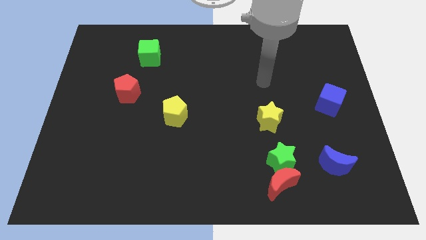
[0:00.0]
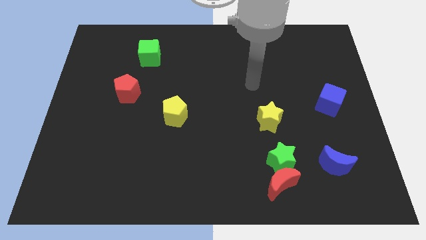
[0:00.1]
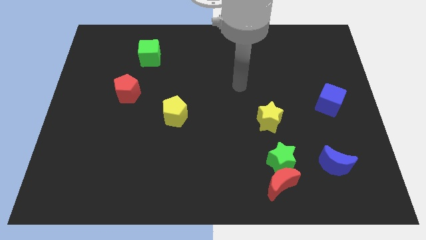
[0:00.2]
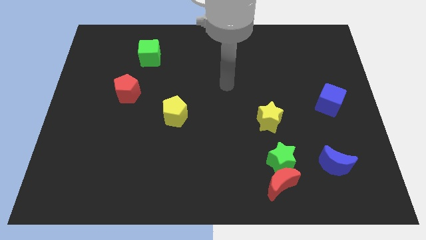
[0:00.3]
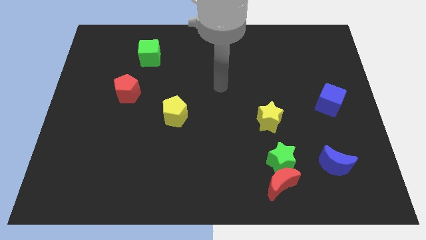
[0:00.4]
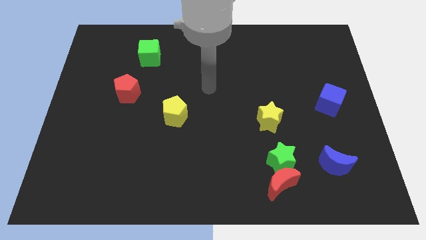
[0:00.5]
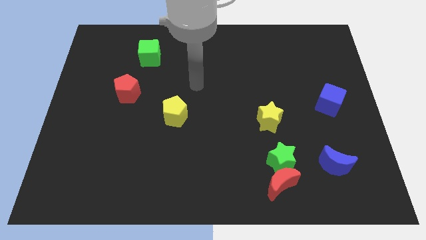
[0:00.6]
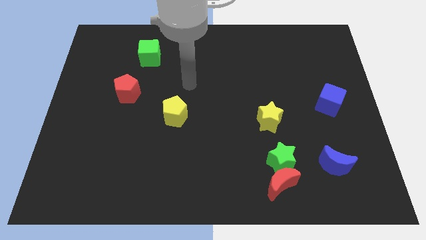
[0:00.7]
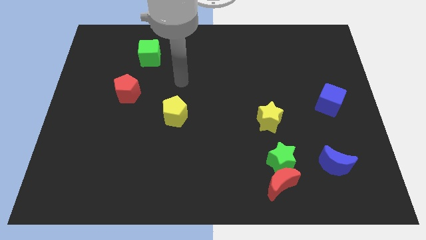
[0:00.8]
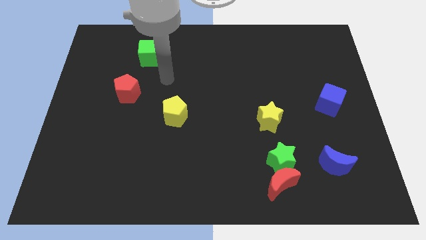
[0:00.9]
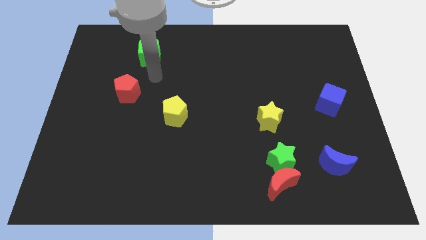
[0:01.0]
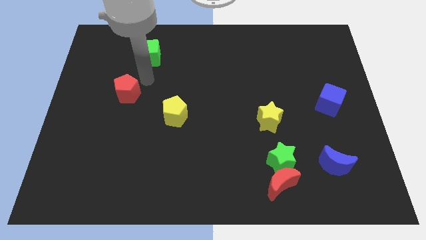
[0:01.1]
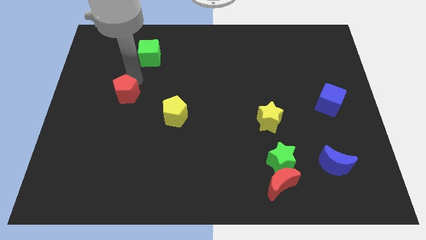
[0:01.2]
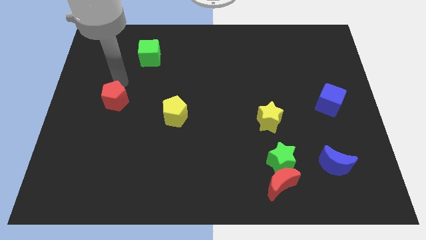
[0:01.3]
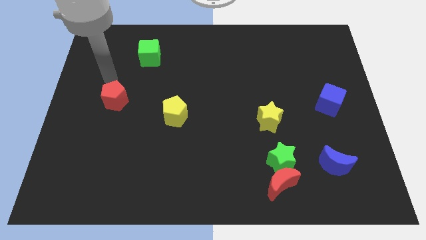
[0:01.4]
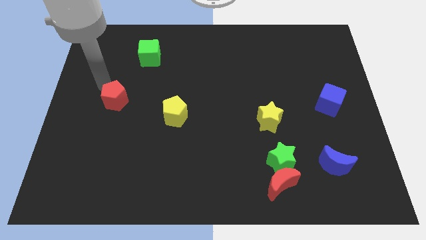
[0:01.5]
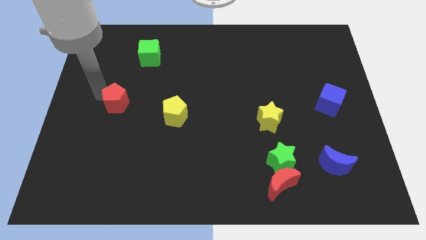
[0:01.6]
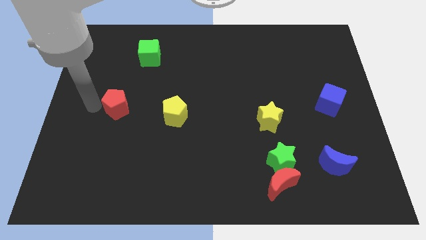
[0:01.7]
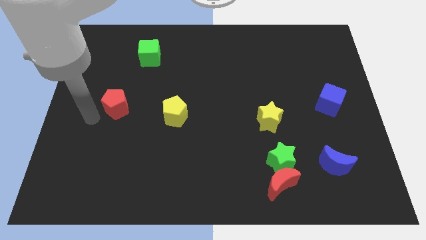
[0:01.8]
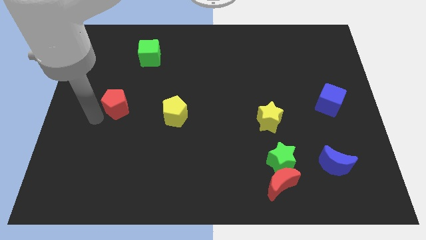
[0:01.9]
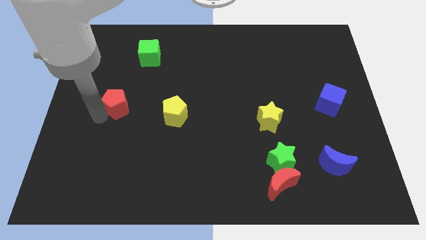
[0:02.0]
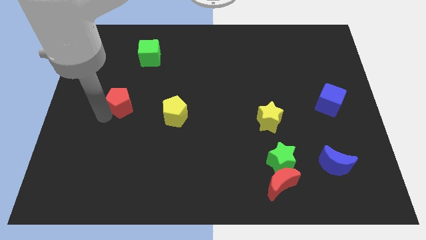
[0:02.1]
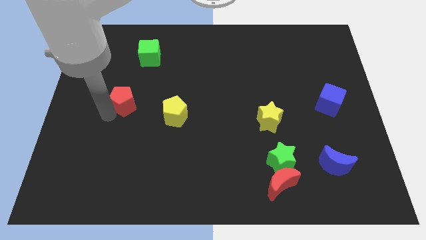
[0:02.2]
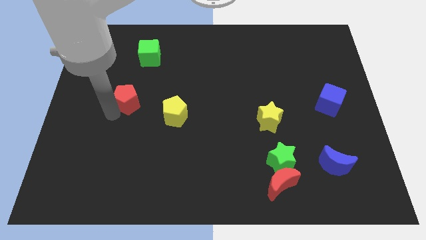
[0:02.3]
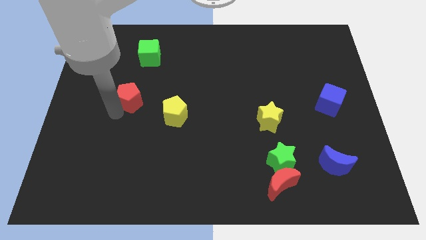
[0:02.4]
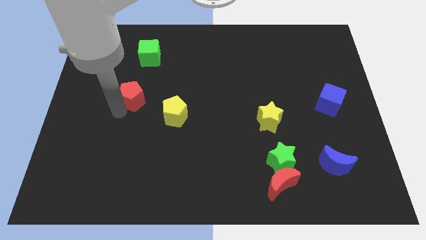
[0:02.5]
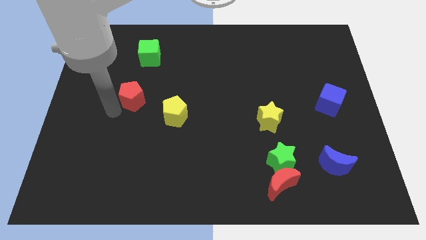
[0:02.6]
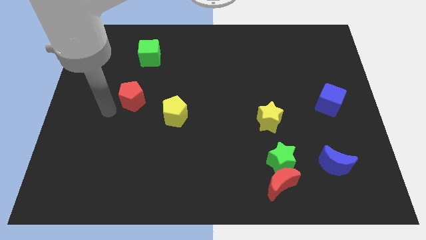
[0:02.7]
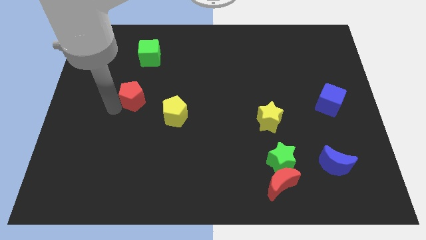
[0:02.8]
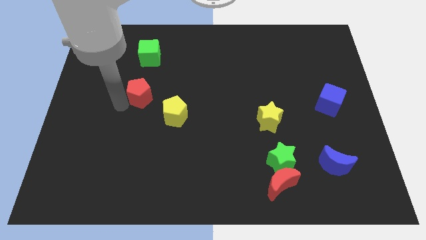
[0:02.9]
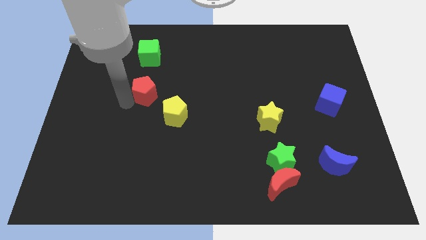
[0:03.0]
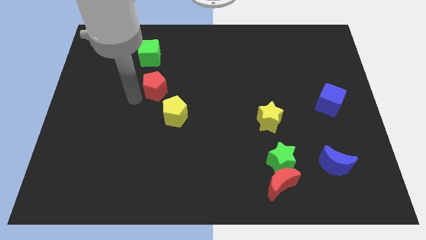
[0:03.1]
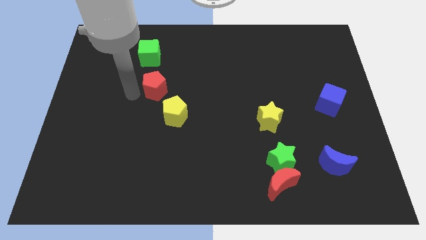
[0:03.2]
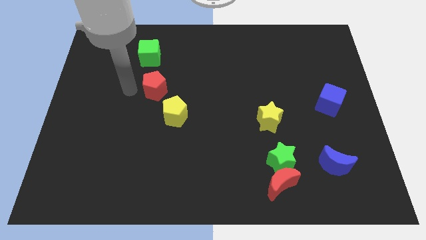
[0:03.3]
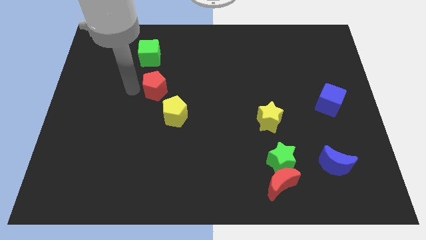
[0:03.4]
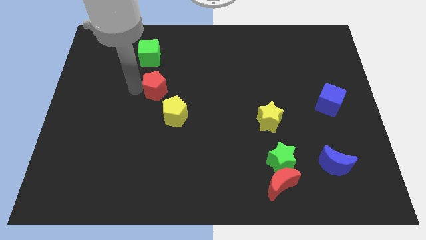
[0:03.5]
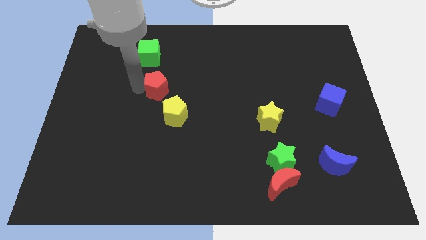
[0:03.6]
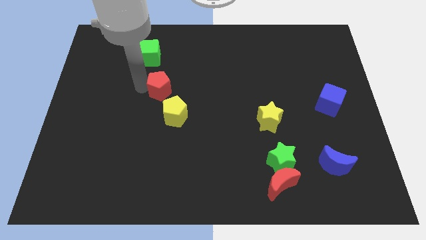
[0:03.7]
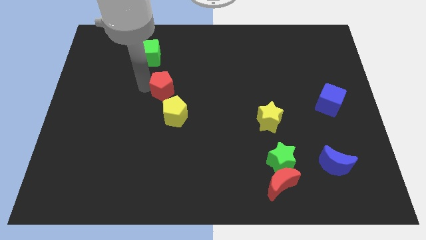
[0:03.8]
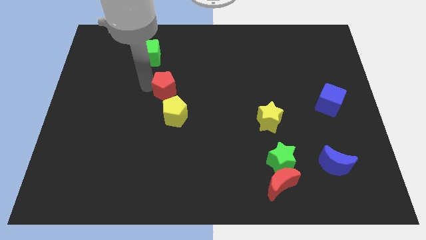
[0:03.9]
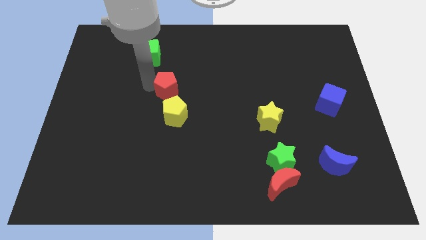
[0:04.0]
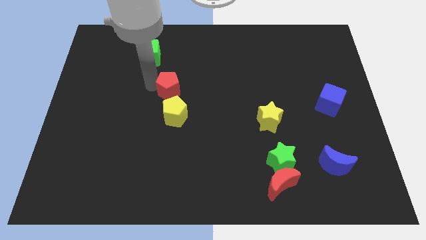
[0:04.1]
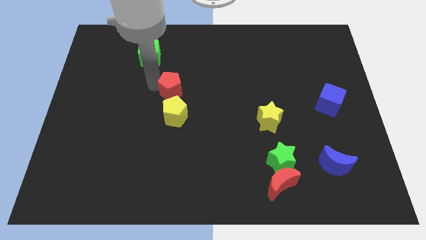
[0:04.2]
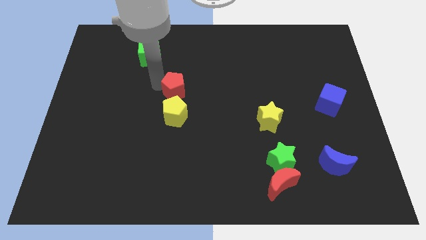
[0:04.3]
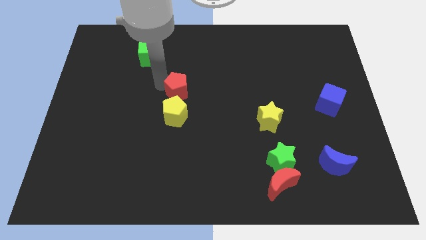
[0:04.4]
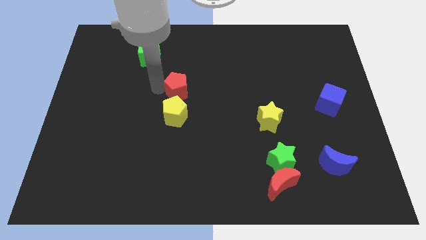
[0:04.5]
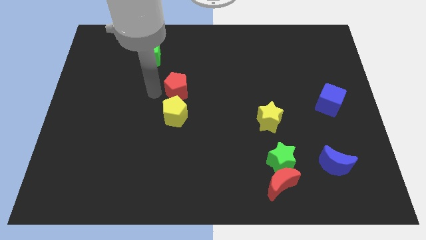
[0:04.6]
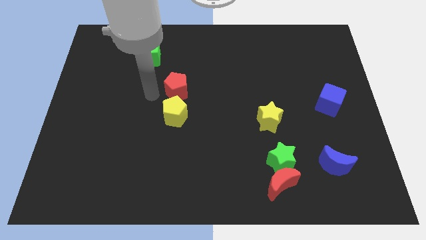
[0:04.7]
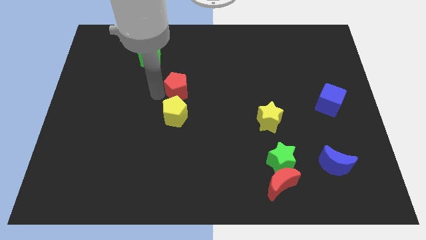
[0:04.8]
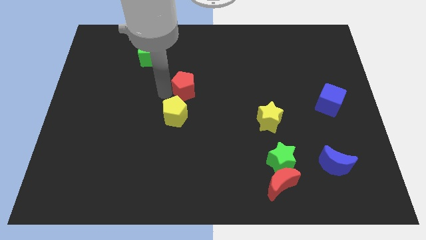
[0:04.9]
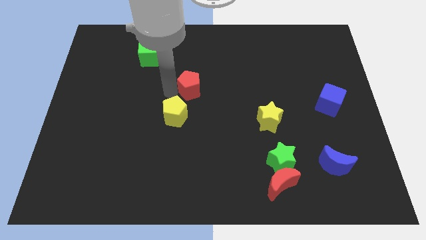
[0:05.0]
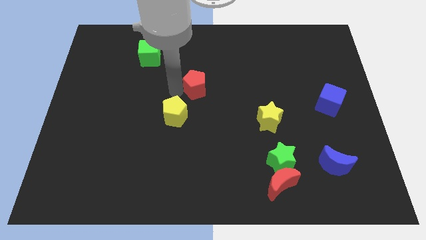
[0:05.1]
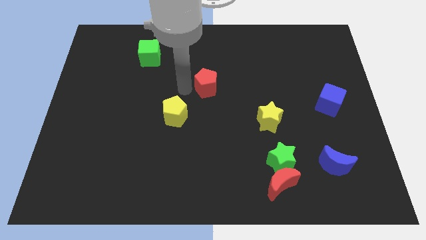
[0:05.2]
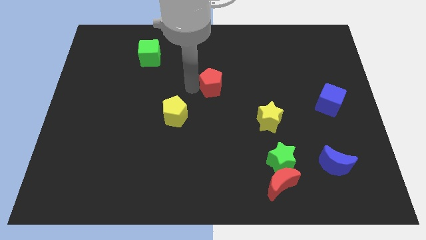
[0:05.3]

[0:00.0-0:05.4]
slide the red pentagon right

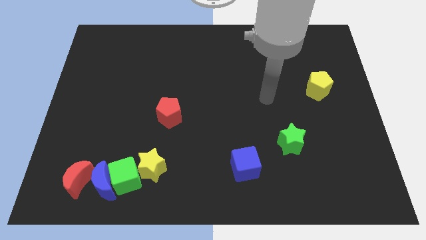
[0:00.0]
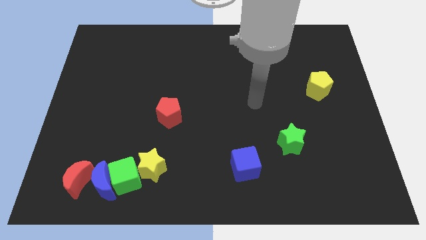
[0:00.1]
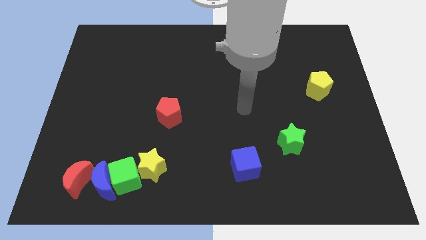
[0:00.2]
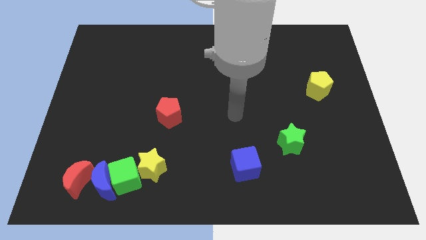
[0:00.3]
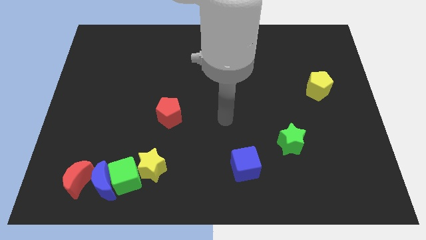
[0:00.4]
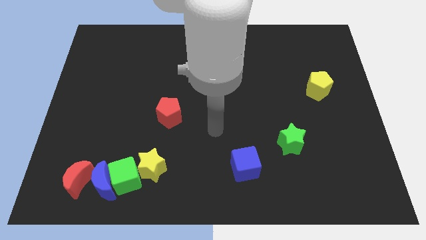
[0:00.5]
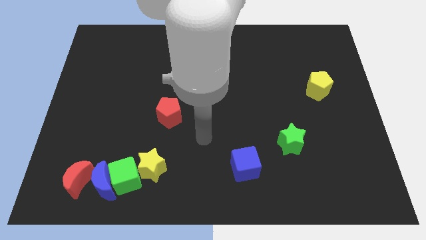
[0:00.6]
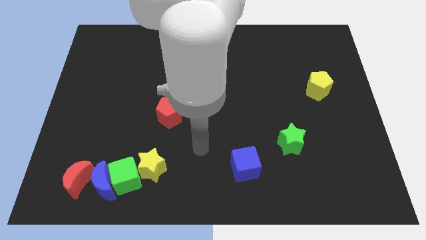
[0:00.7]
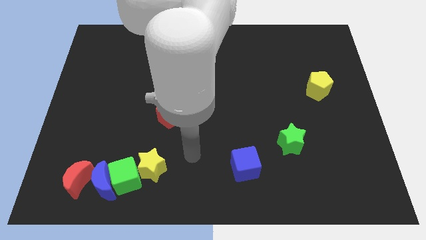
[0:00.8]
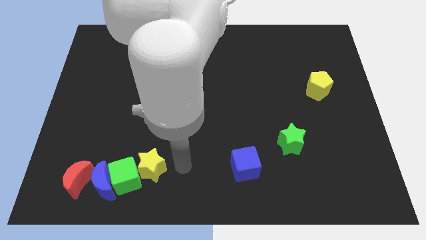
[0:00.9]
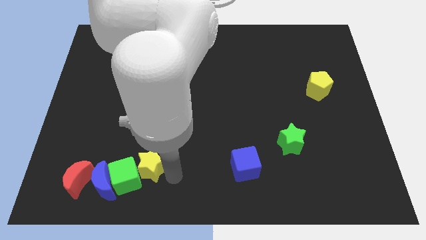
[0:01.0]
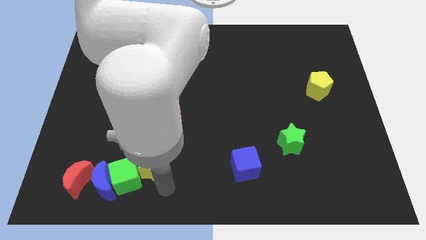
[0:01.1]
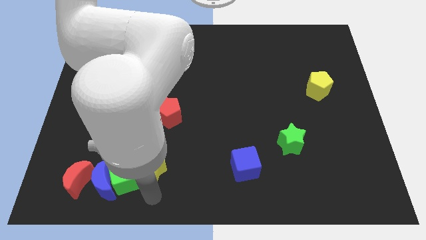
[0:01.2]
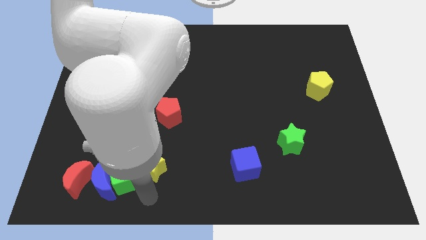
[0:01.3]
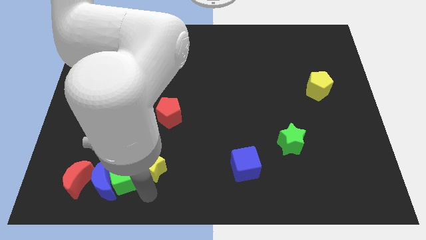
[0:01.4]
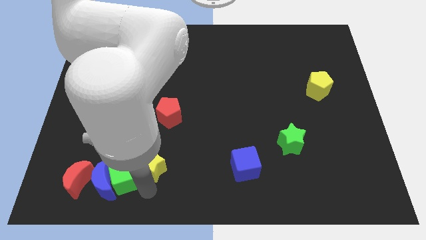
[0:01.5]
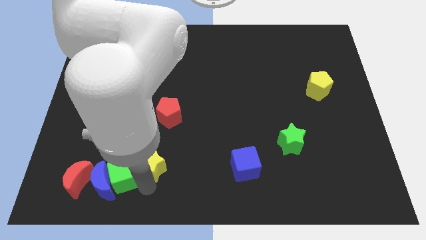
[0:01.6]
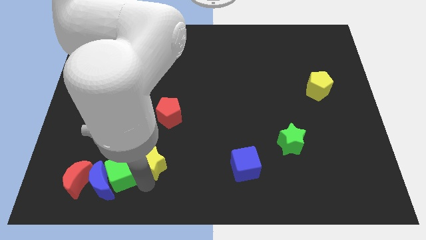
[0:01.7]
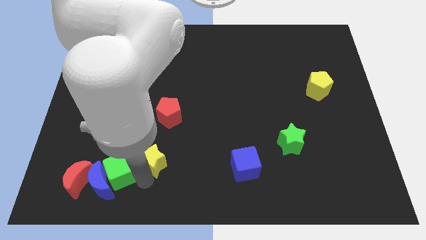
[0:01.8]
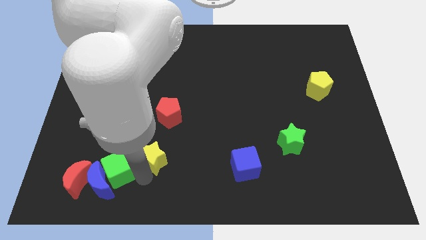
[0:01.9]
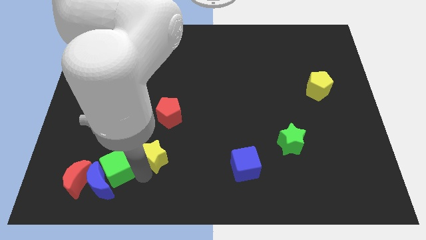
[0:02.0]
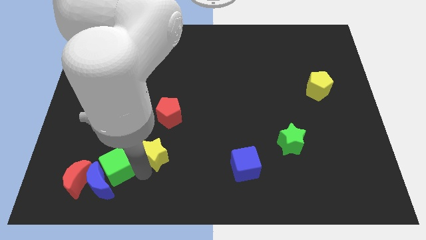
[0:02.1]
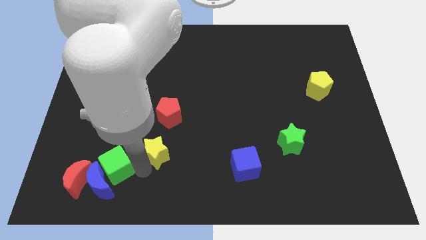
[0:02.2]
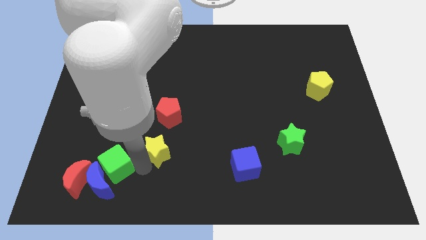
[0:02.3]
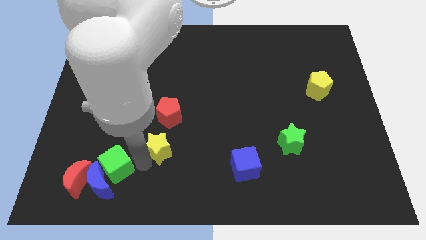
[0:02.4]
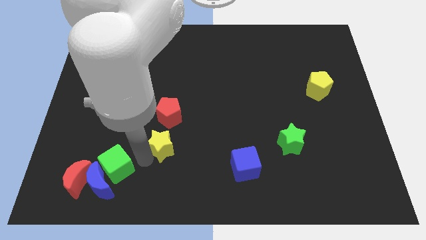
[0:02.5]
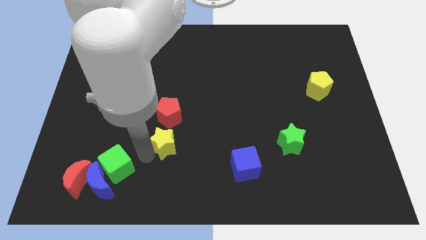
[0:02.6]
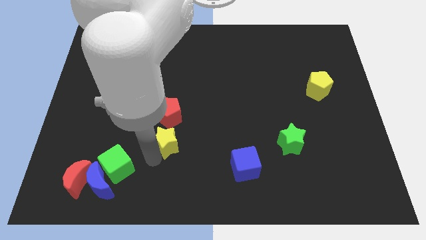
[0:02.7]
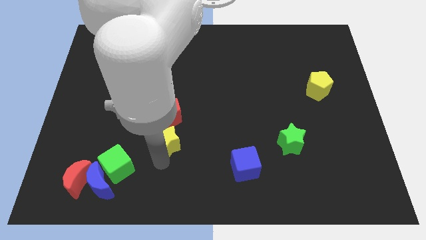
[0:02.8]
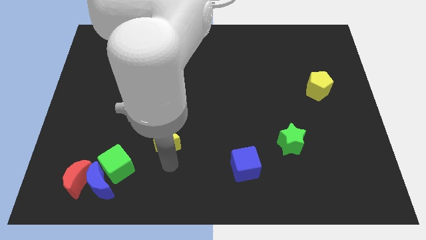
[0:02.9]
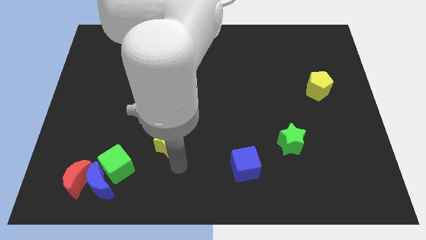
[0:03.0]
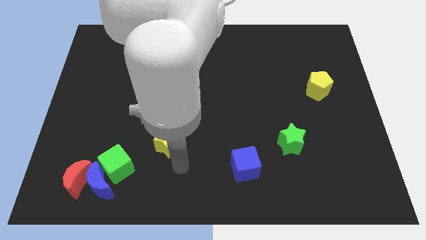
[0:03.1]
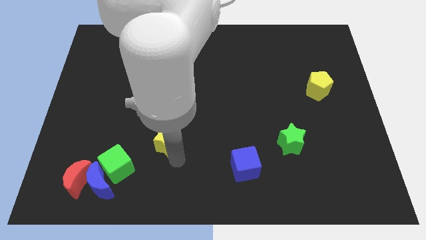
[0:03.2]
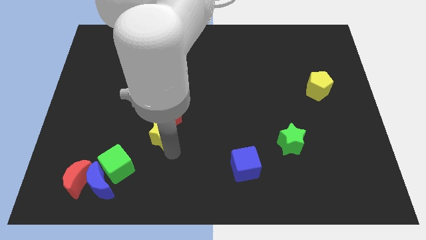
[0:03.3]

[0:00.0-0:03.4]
slide the yellow star slightly up
